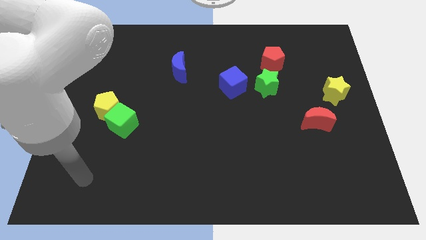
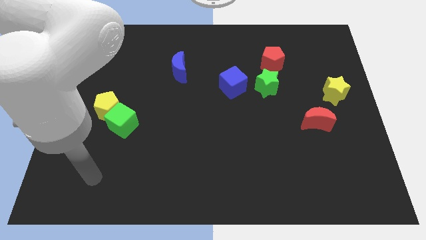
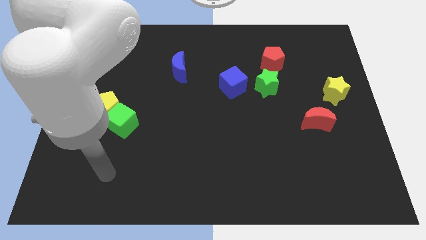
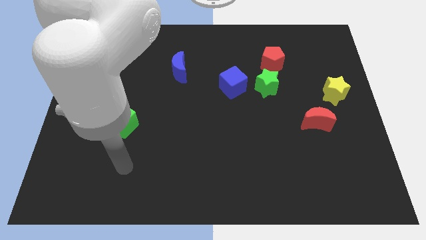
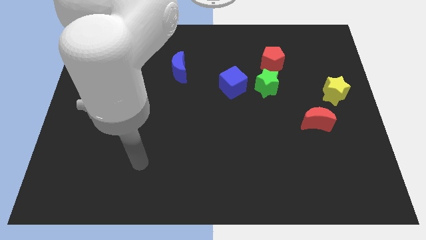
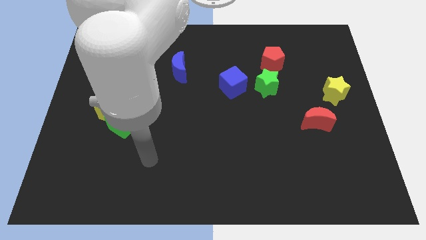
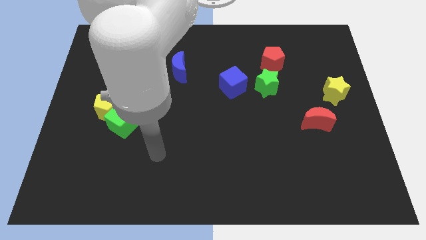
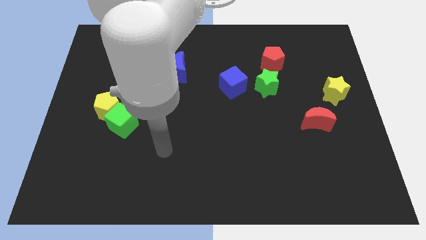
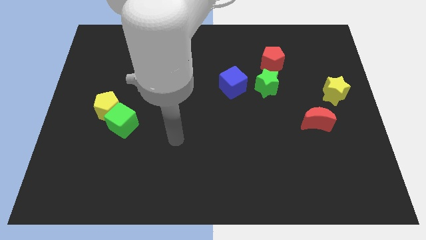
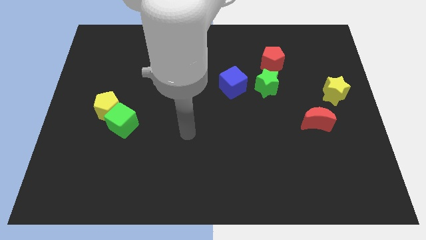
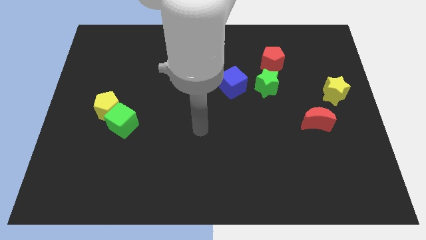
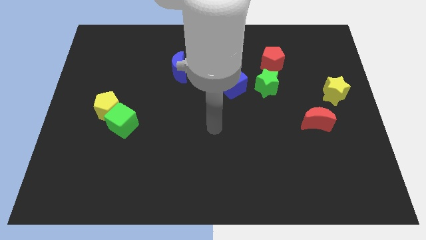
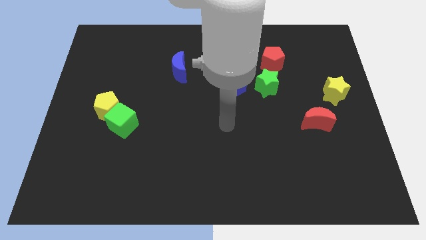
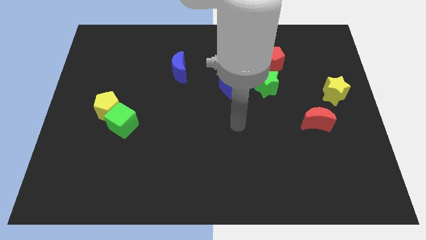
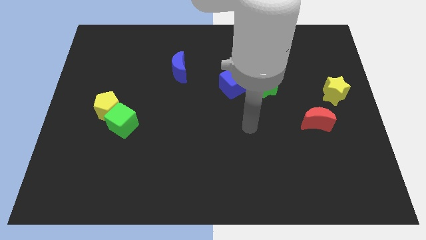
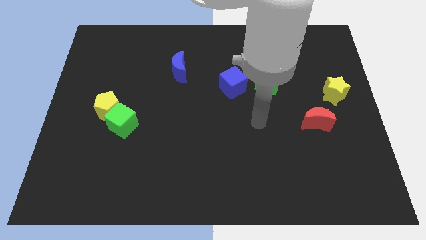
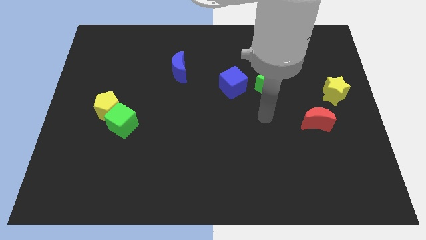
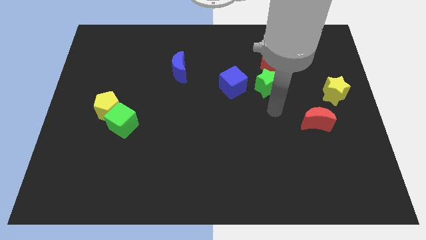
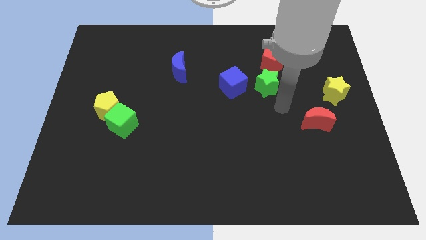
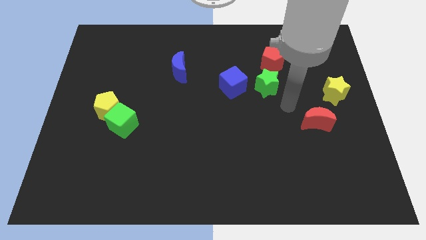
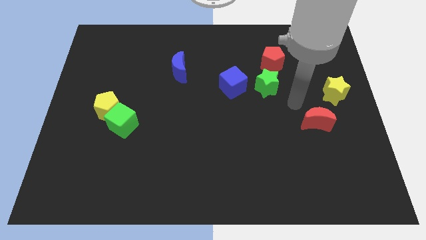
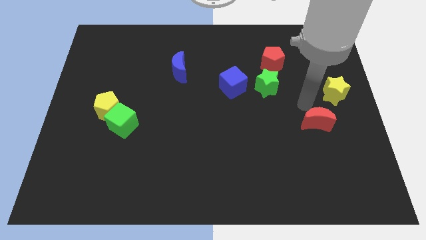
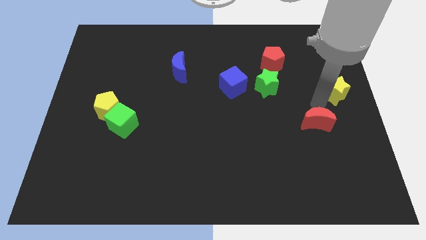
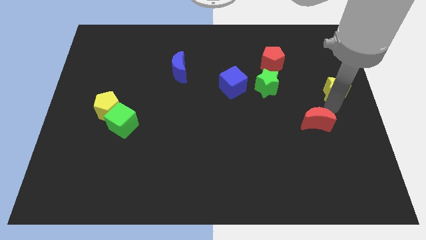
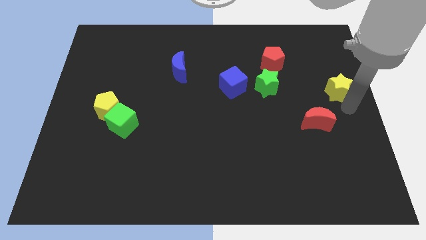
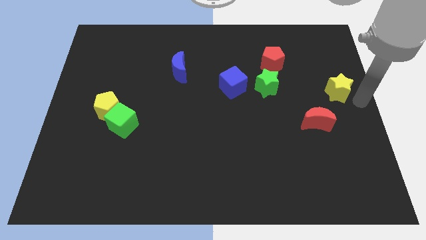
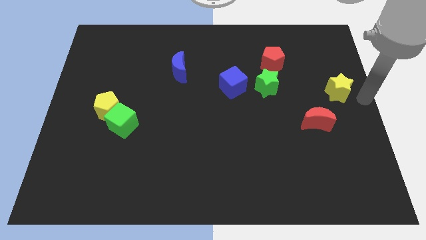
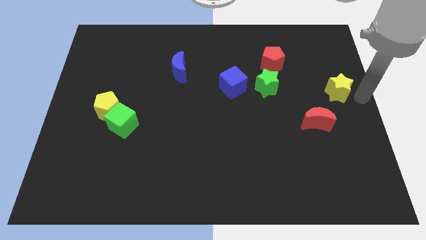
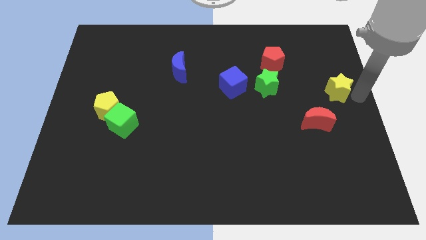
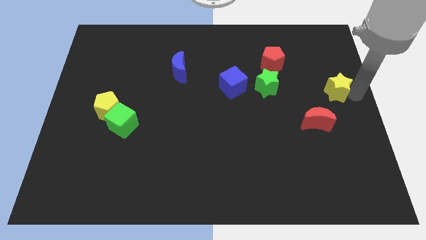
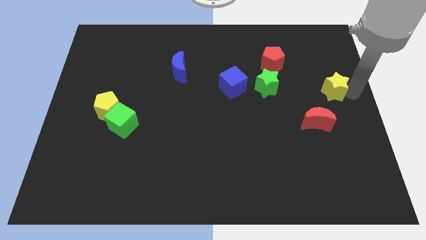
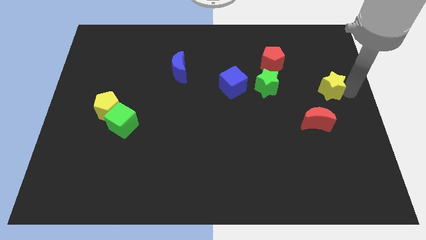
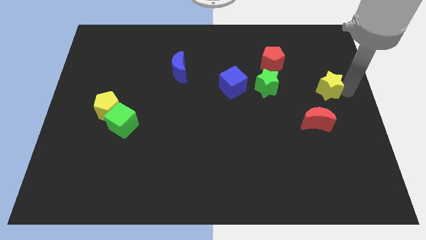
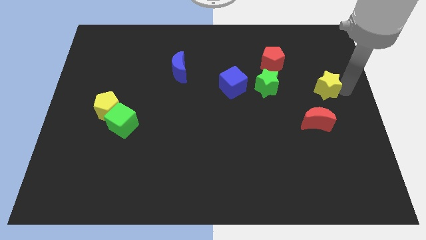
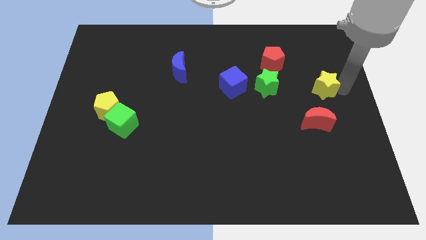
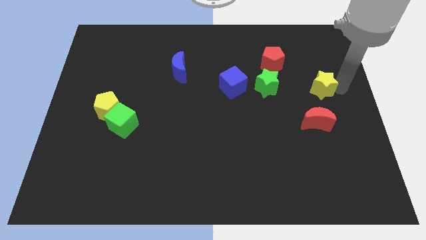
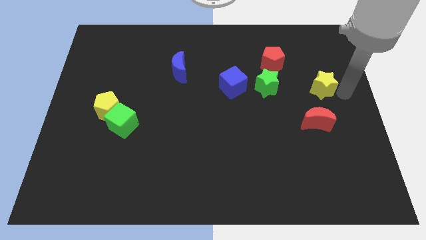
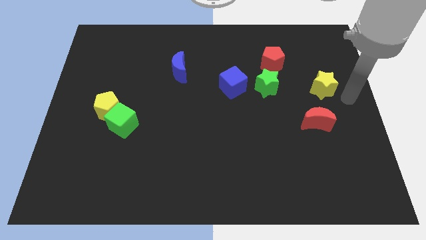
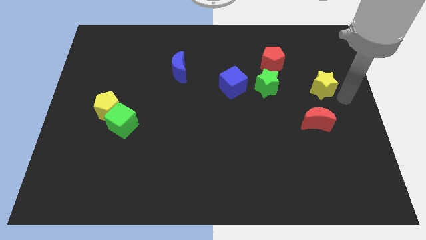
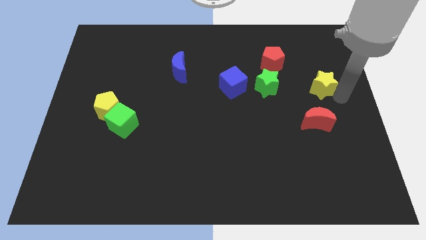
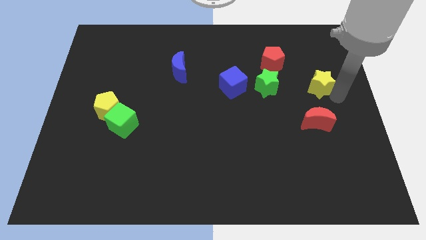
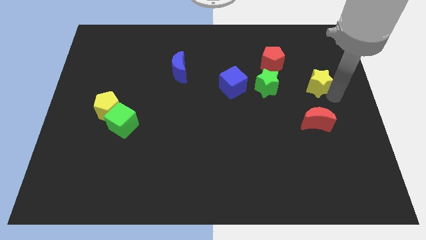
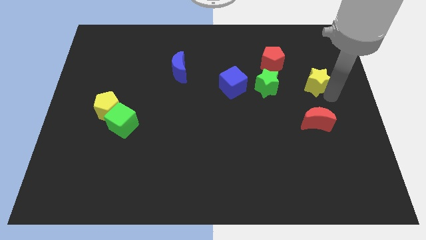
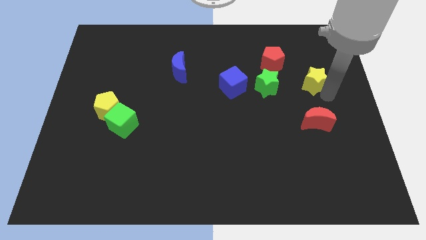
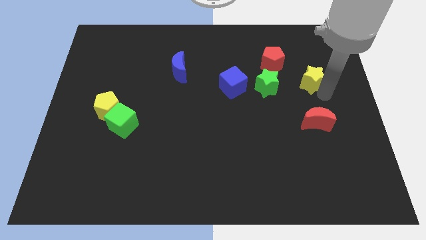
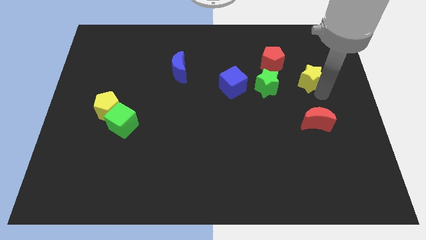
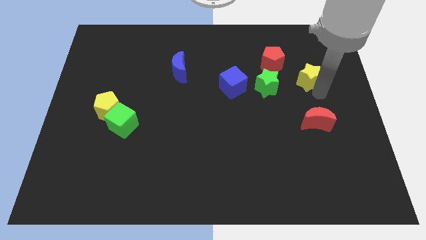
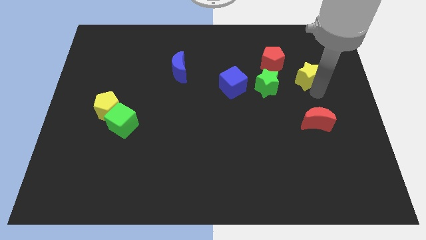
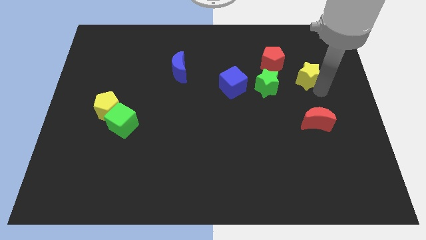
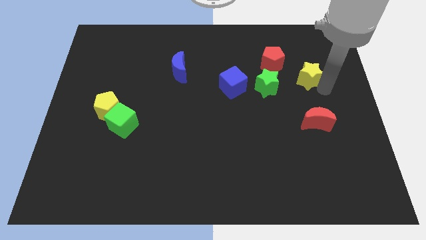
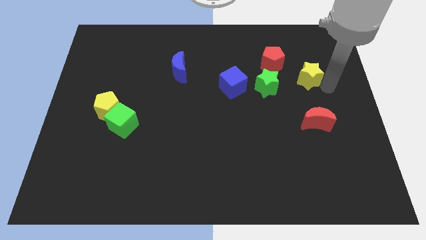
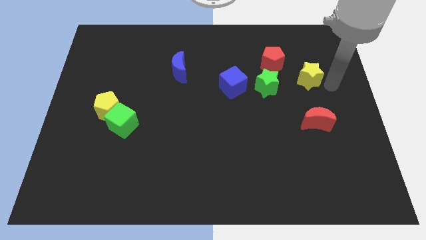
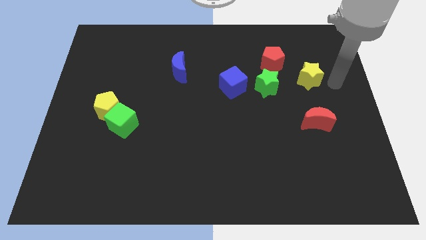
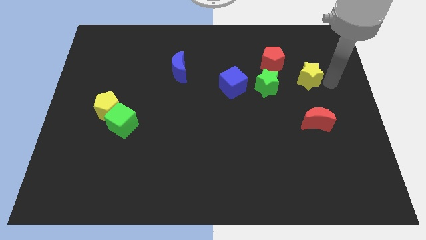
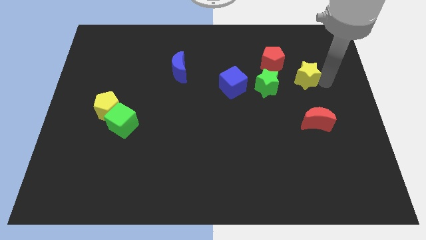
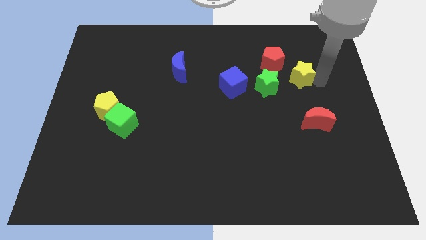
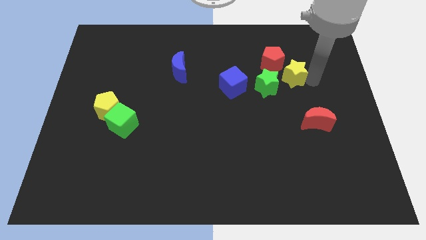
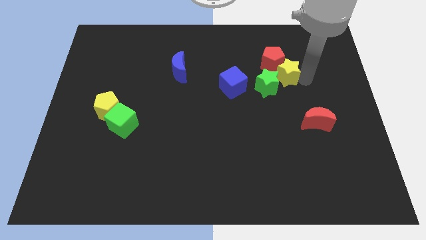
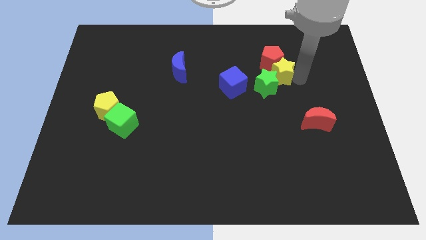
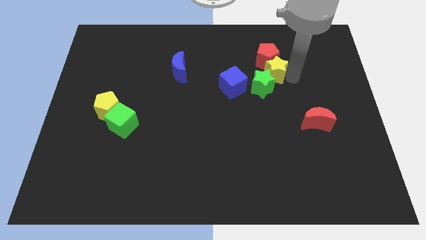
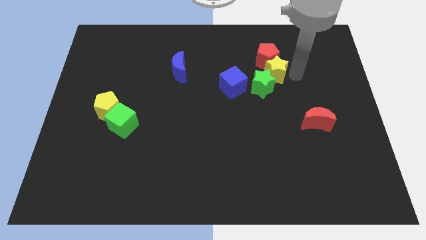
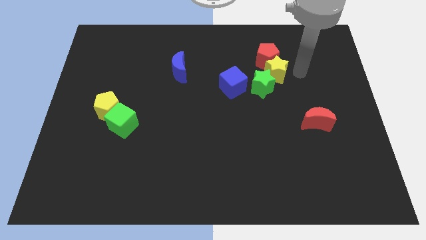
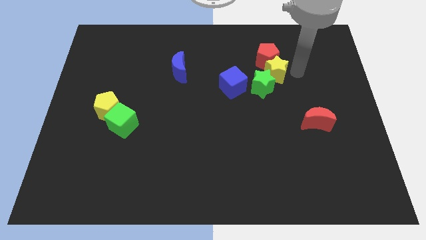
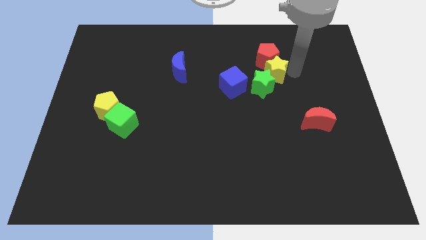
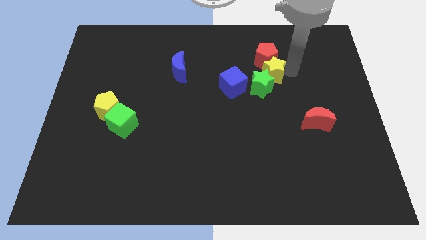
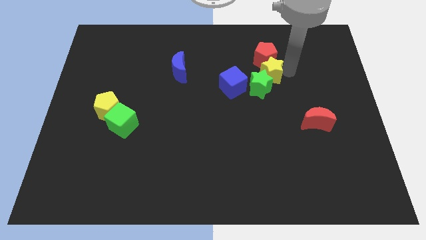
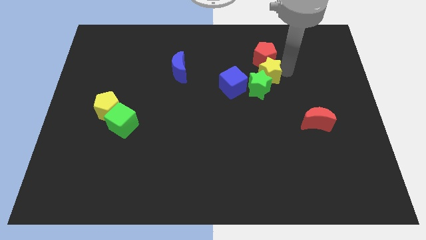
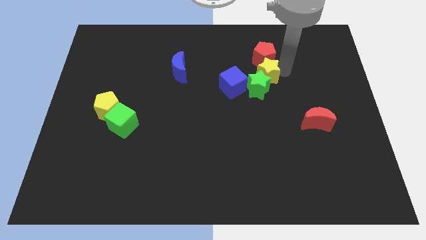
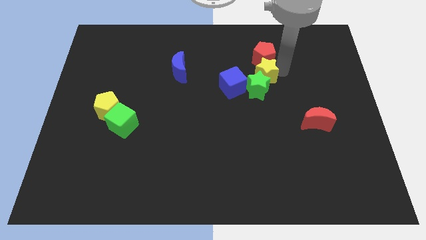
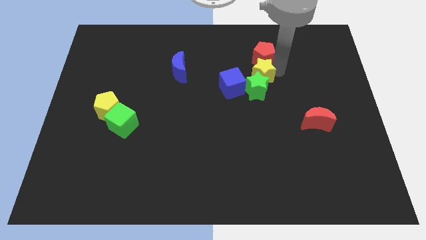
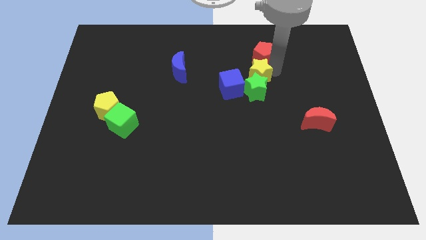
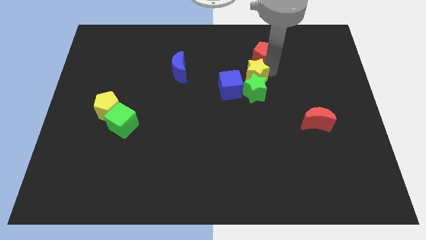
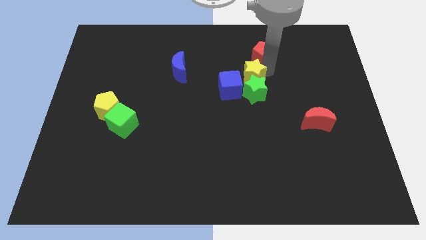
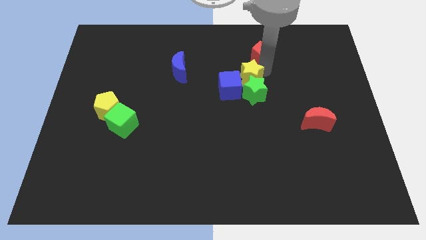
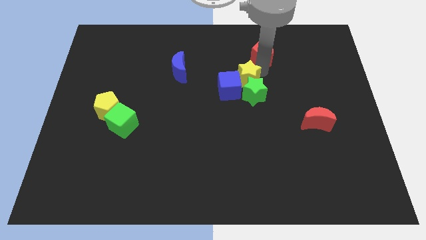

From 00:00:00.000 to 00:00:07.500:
move the yellow star to the blue cube
